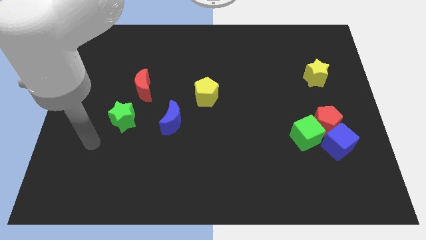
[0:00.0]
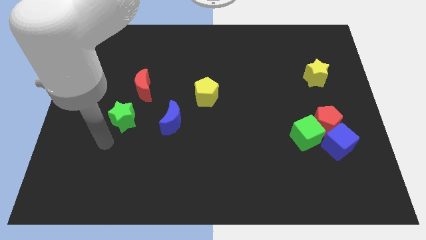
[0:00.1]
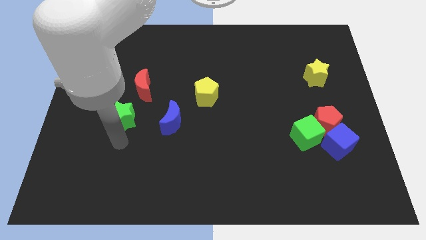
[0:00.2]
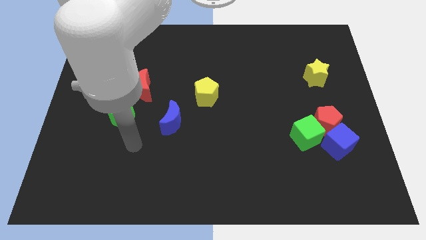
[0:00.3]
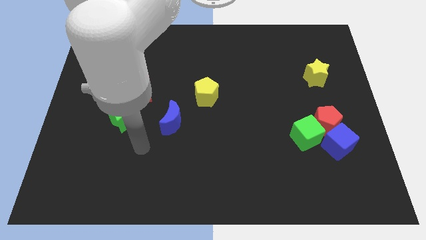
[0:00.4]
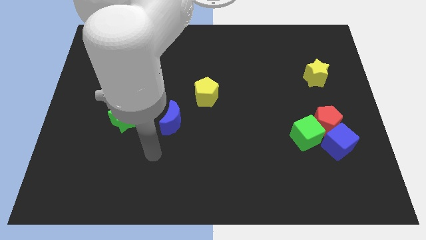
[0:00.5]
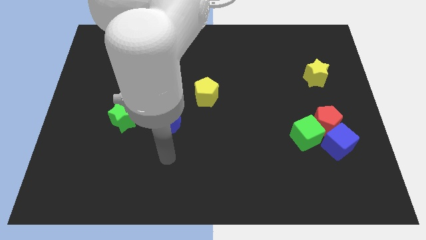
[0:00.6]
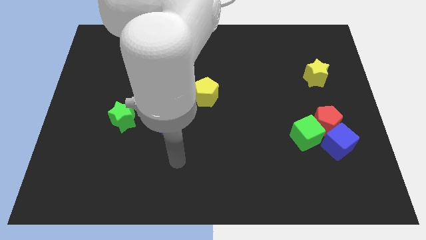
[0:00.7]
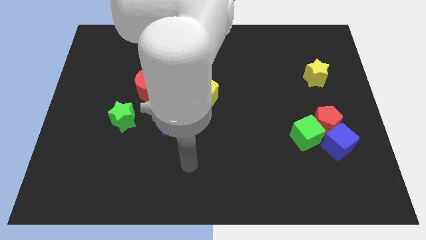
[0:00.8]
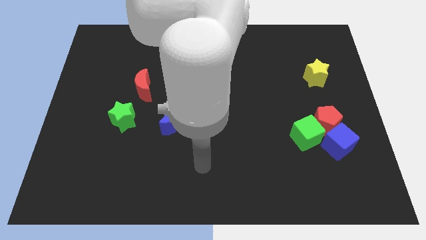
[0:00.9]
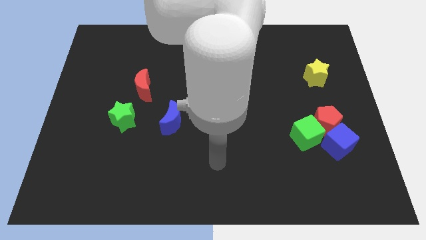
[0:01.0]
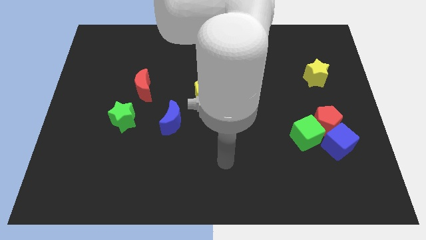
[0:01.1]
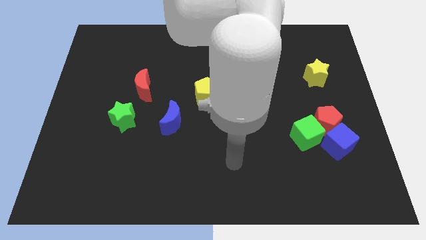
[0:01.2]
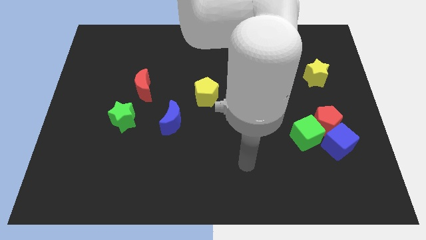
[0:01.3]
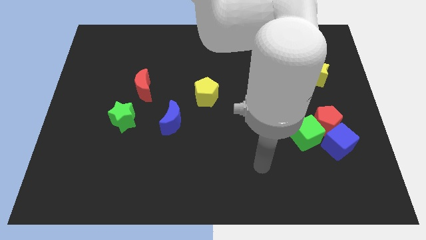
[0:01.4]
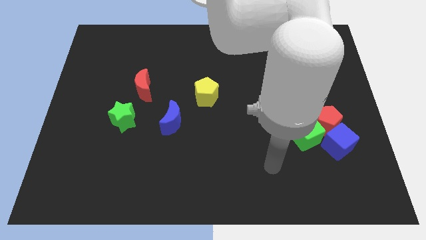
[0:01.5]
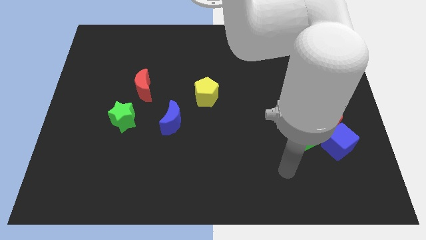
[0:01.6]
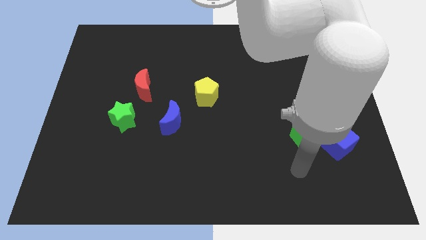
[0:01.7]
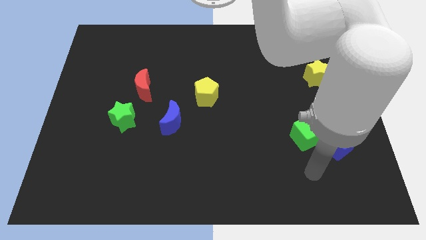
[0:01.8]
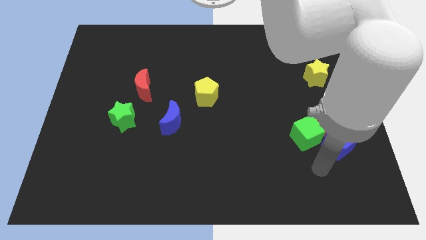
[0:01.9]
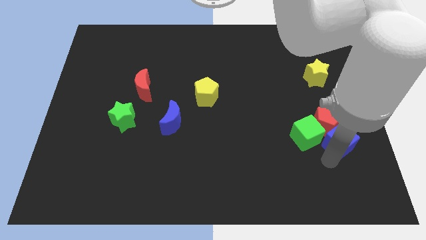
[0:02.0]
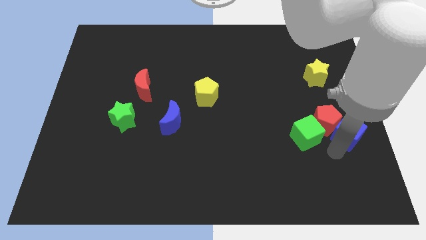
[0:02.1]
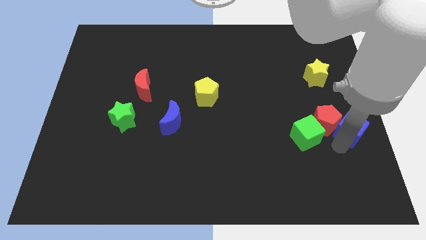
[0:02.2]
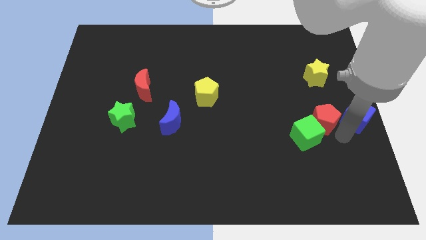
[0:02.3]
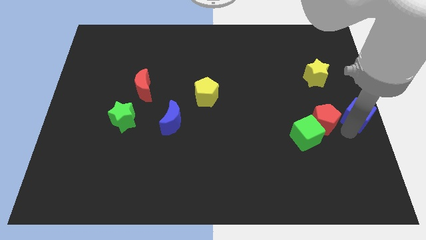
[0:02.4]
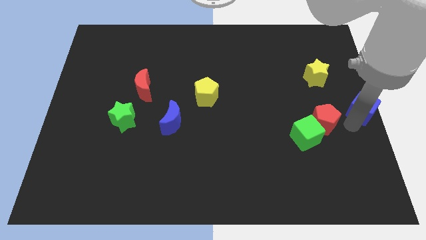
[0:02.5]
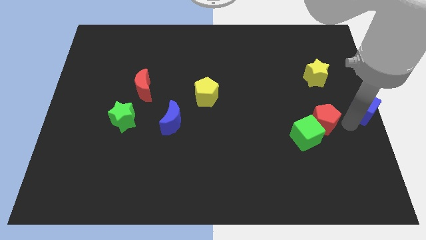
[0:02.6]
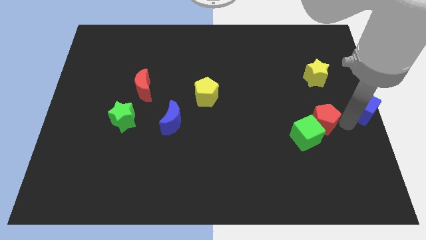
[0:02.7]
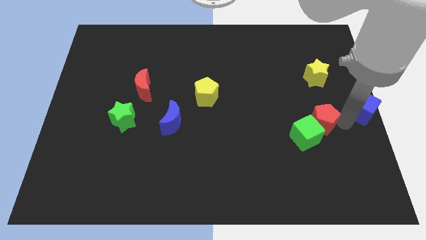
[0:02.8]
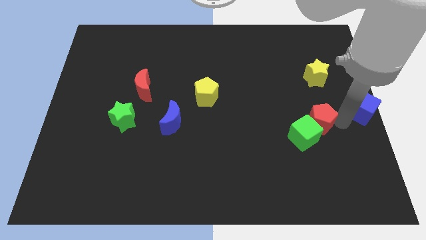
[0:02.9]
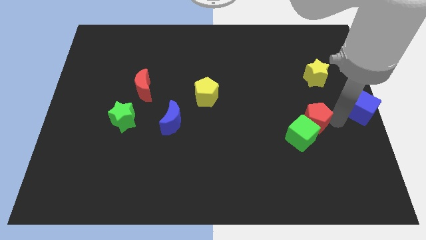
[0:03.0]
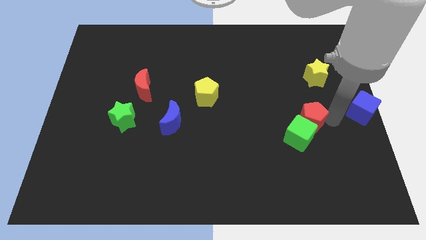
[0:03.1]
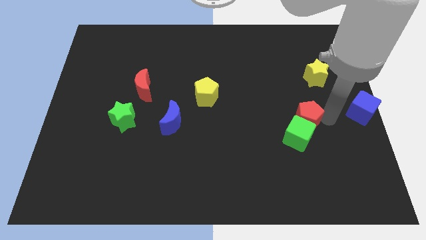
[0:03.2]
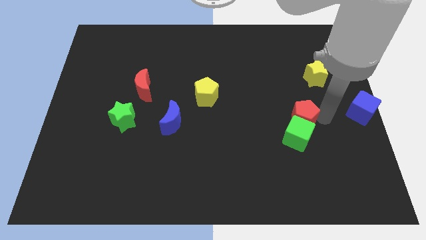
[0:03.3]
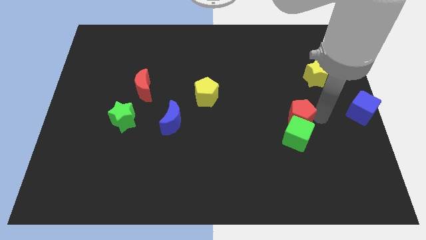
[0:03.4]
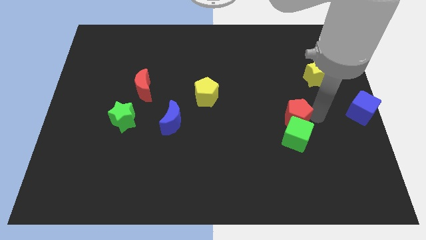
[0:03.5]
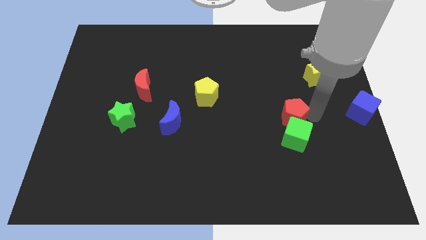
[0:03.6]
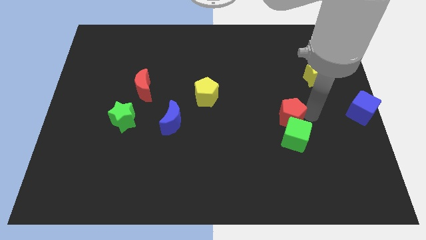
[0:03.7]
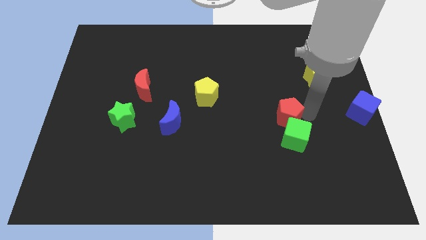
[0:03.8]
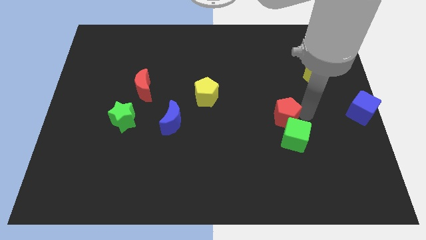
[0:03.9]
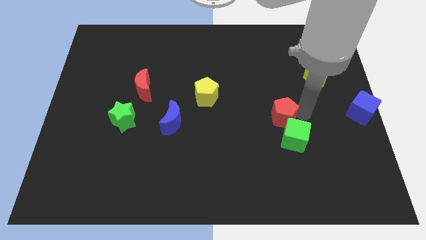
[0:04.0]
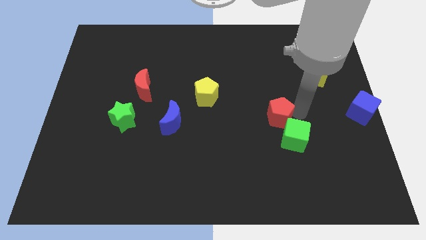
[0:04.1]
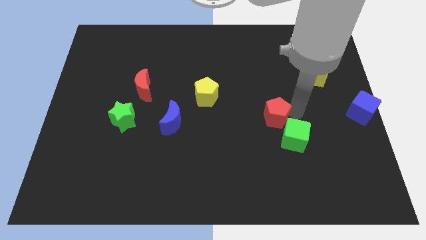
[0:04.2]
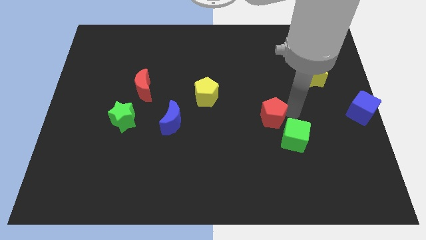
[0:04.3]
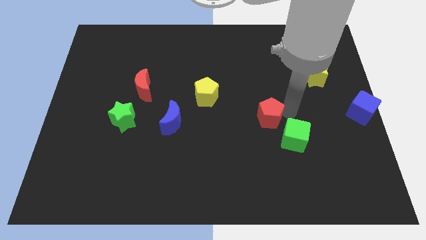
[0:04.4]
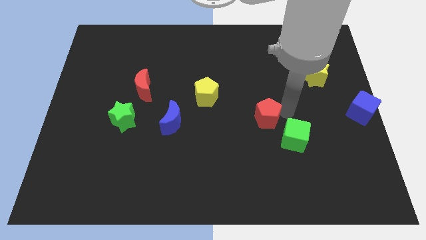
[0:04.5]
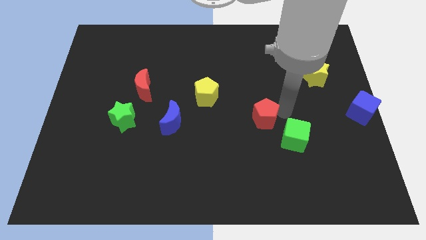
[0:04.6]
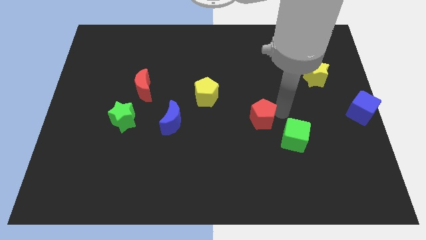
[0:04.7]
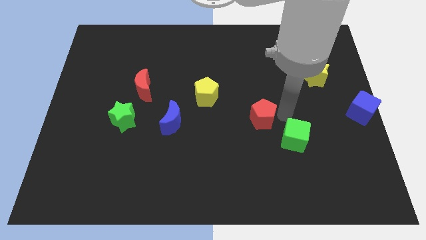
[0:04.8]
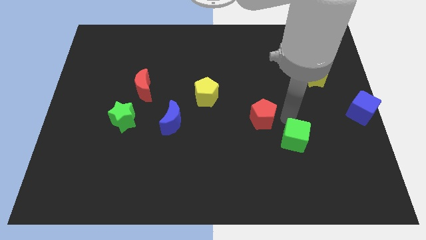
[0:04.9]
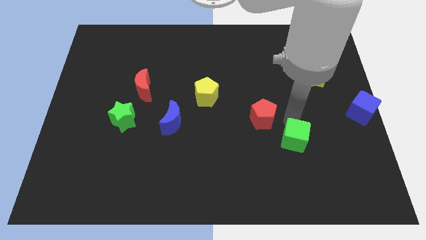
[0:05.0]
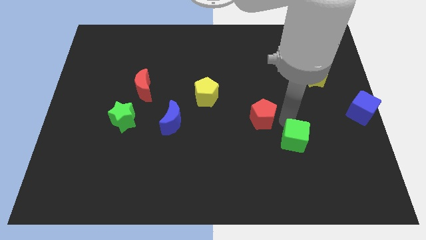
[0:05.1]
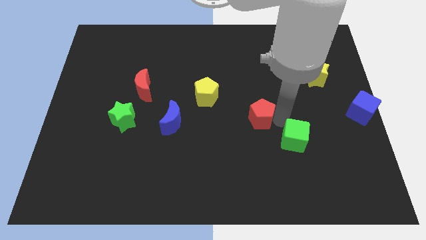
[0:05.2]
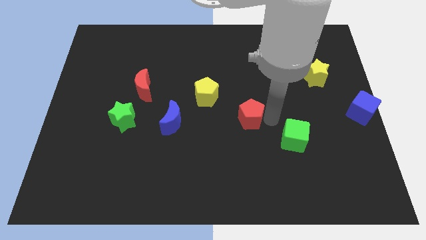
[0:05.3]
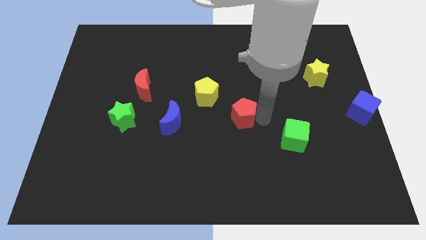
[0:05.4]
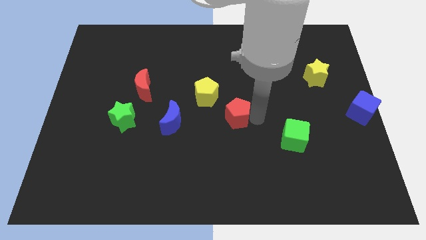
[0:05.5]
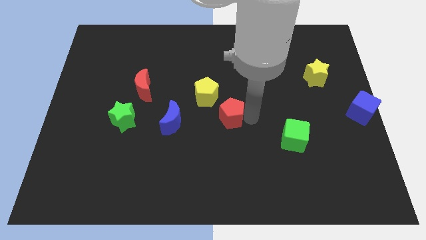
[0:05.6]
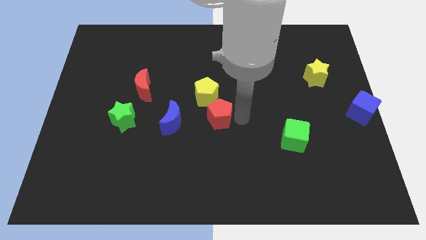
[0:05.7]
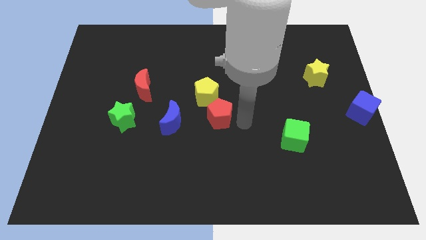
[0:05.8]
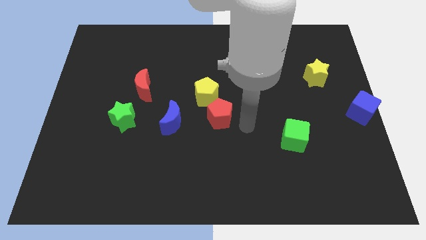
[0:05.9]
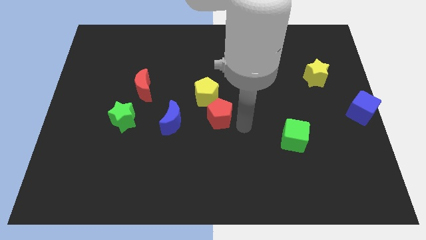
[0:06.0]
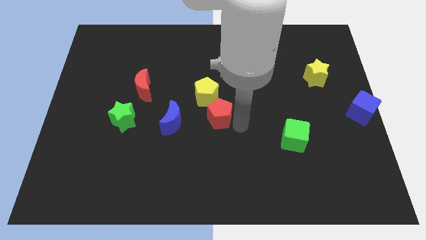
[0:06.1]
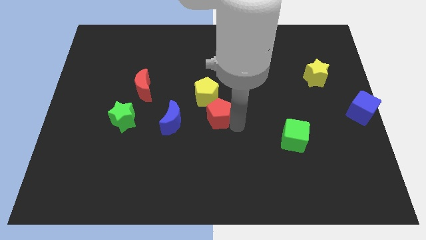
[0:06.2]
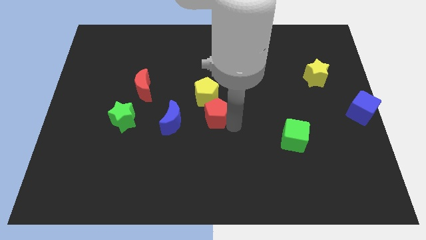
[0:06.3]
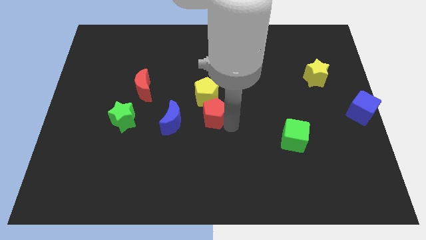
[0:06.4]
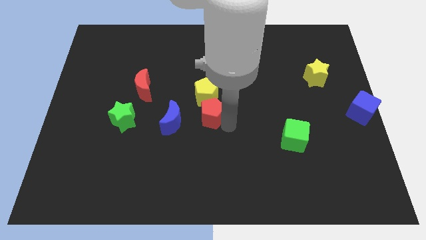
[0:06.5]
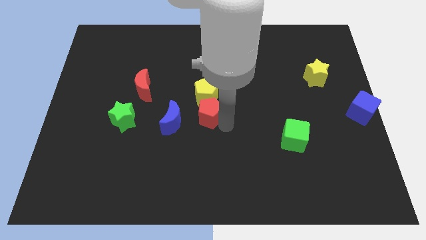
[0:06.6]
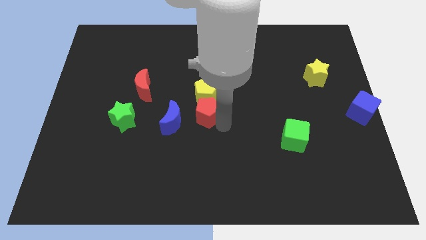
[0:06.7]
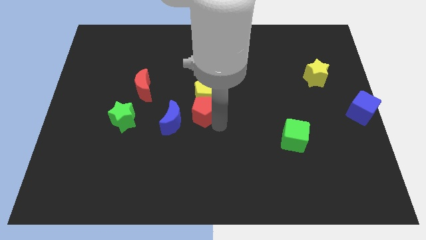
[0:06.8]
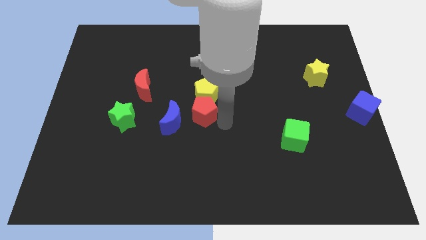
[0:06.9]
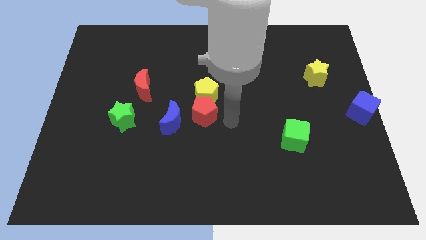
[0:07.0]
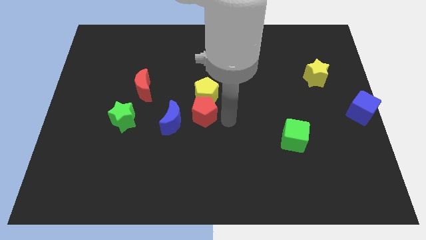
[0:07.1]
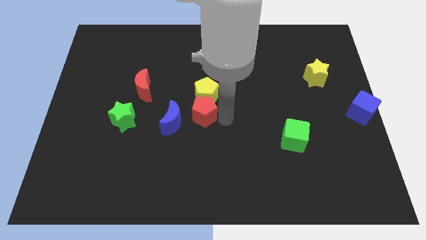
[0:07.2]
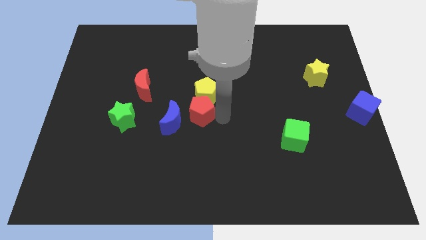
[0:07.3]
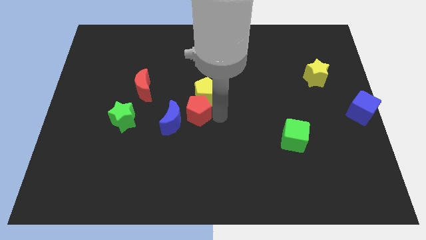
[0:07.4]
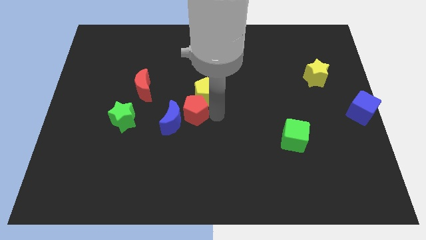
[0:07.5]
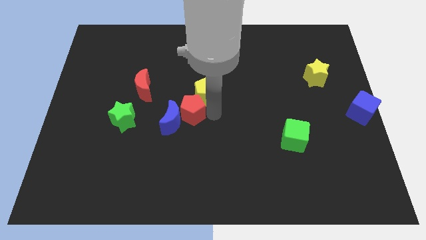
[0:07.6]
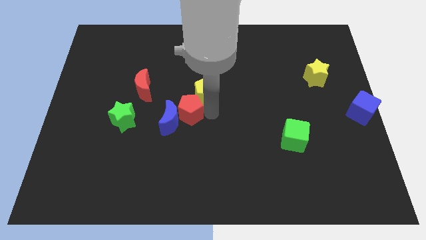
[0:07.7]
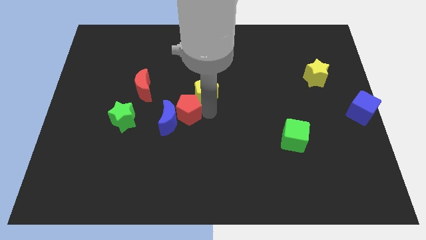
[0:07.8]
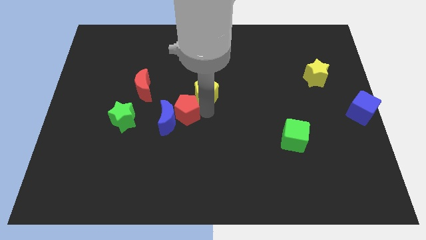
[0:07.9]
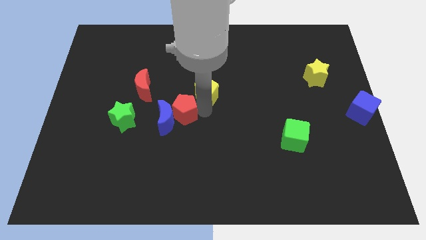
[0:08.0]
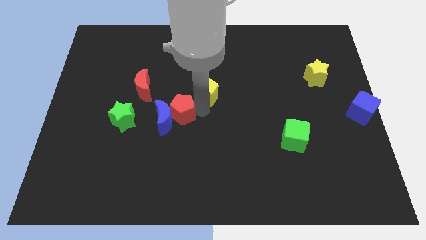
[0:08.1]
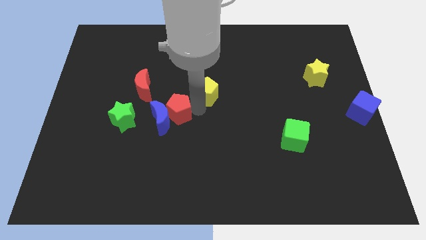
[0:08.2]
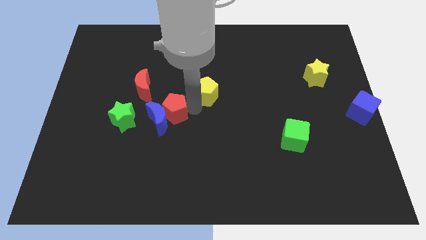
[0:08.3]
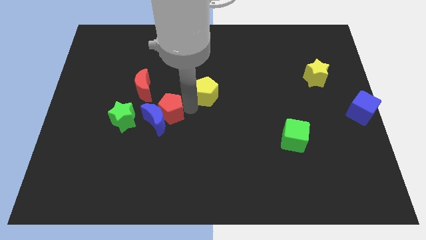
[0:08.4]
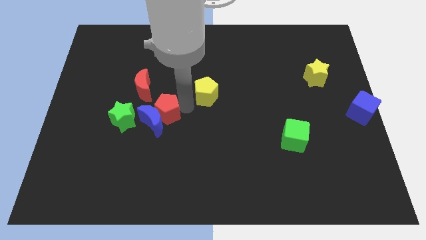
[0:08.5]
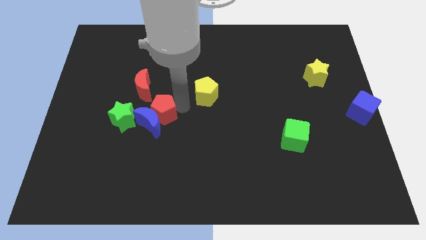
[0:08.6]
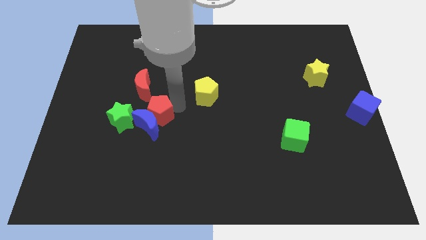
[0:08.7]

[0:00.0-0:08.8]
move the red pentagon diagonally up and to the left of the blue moon
